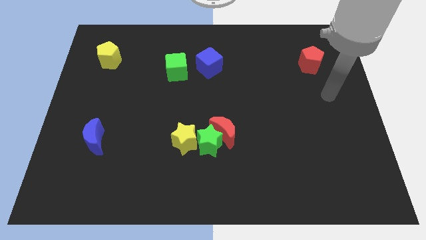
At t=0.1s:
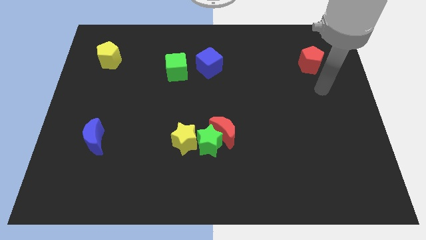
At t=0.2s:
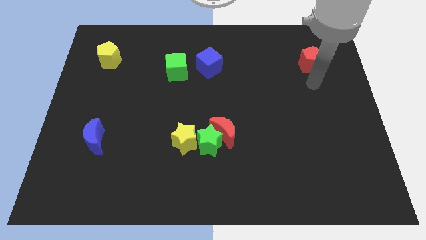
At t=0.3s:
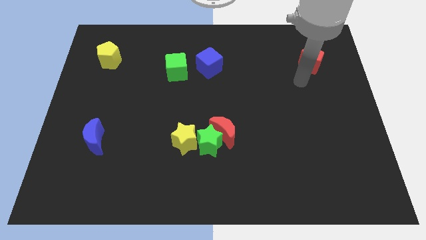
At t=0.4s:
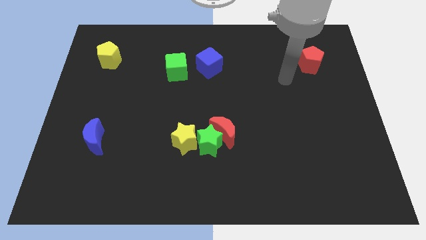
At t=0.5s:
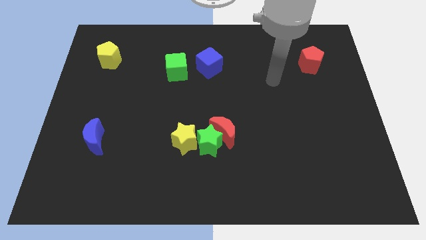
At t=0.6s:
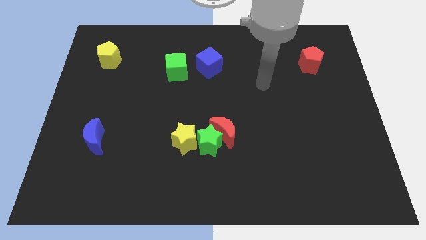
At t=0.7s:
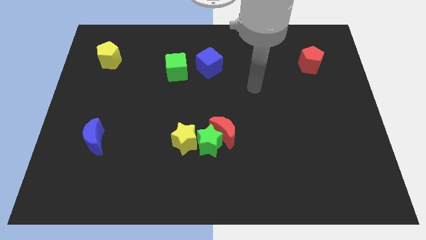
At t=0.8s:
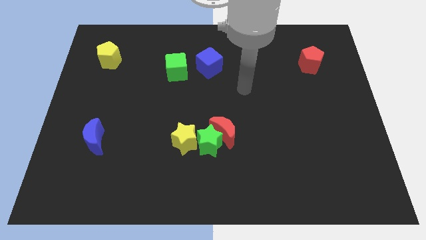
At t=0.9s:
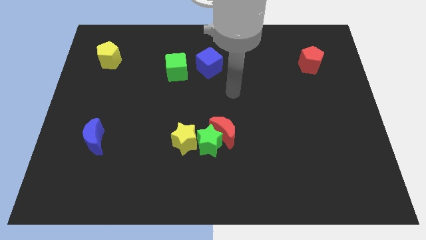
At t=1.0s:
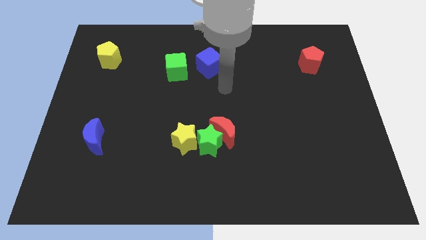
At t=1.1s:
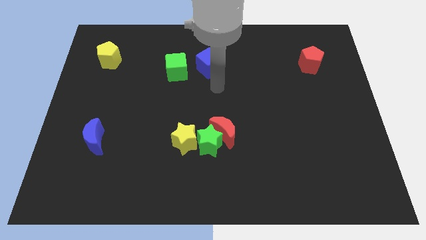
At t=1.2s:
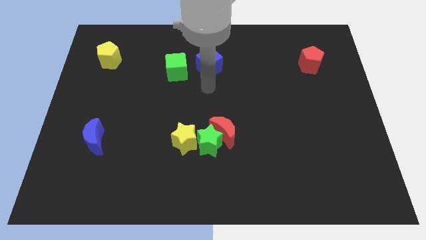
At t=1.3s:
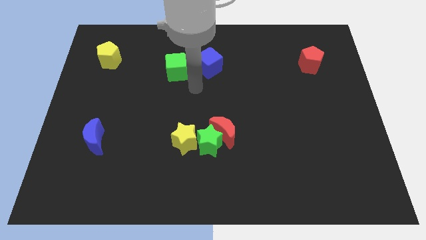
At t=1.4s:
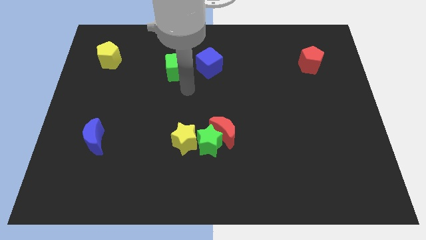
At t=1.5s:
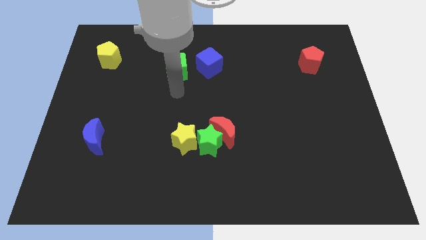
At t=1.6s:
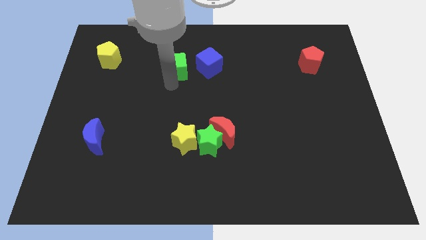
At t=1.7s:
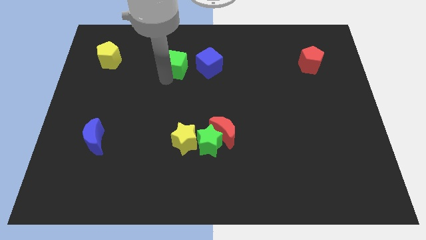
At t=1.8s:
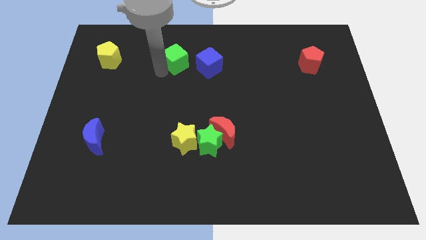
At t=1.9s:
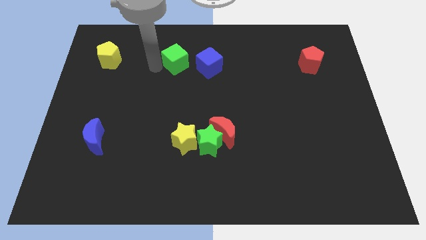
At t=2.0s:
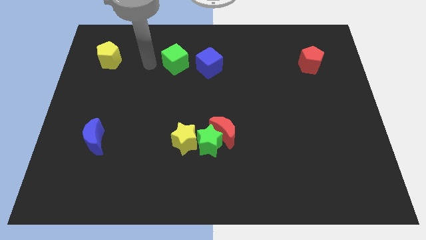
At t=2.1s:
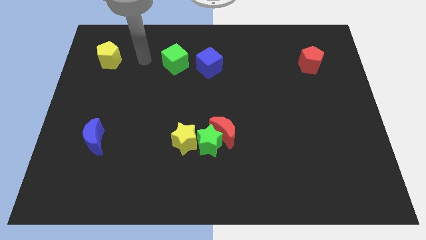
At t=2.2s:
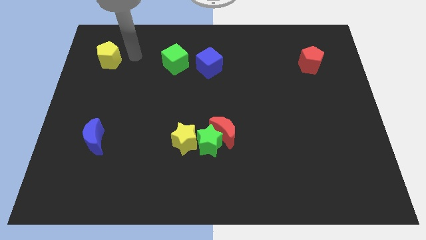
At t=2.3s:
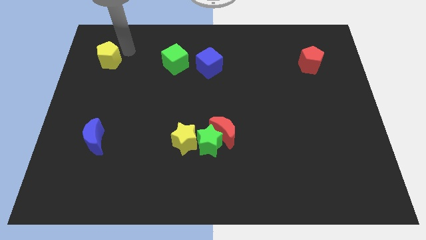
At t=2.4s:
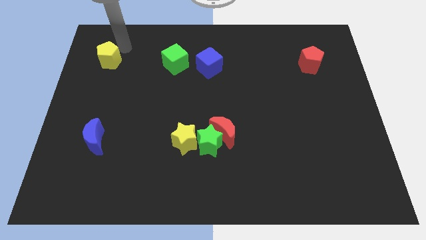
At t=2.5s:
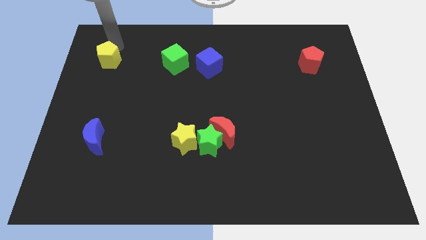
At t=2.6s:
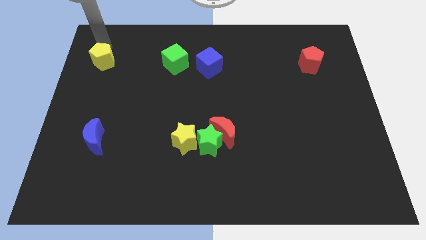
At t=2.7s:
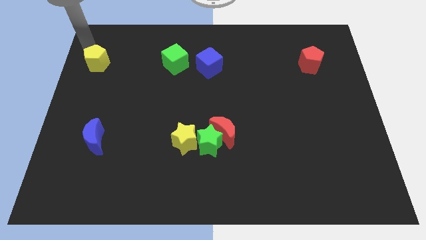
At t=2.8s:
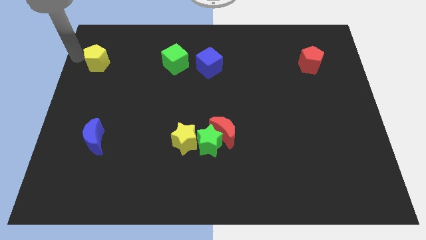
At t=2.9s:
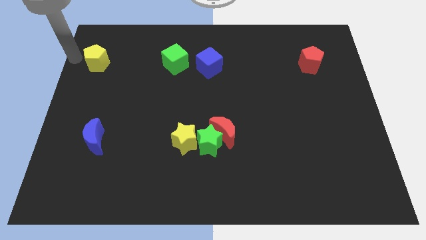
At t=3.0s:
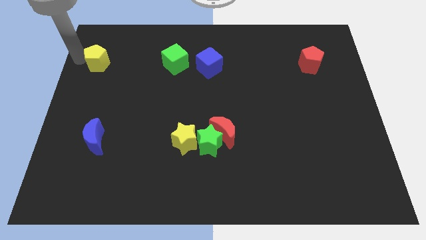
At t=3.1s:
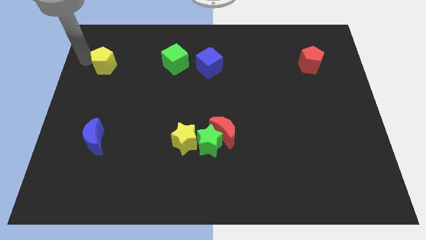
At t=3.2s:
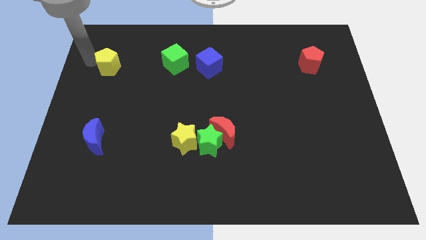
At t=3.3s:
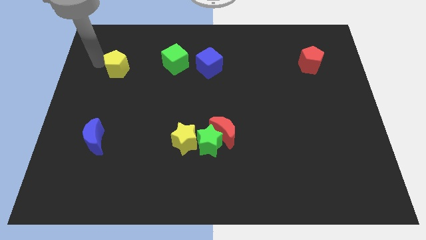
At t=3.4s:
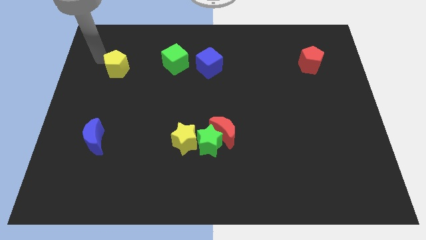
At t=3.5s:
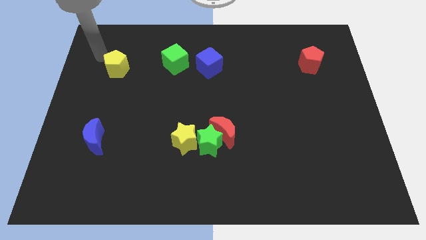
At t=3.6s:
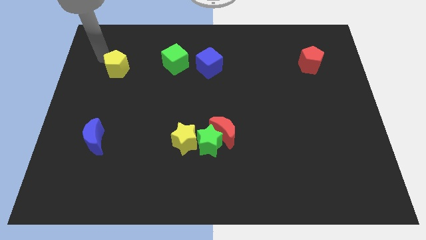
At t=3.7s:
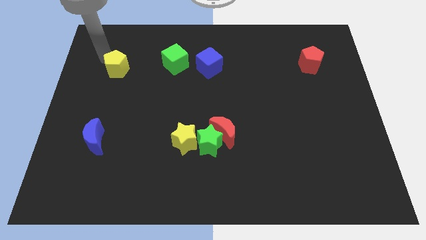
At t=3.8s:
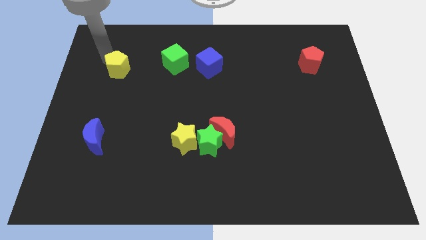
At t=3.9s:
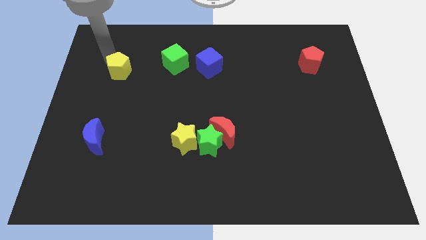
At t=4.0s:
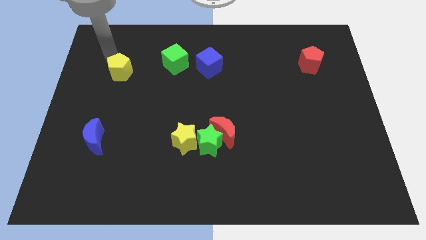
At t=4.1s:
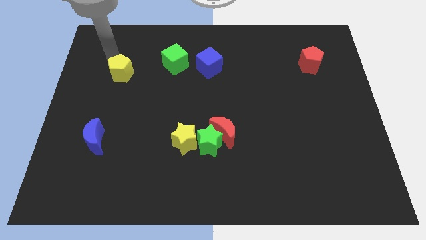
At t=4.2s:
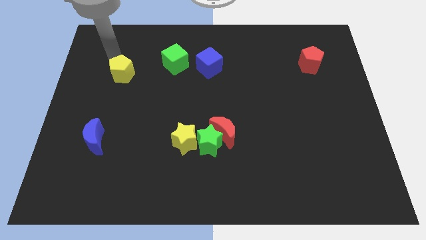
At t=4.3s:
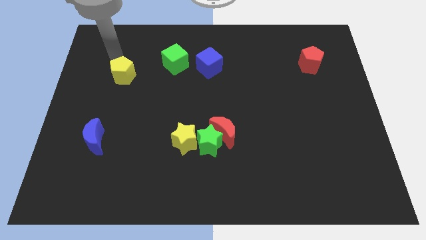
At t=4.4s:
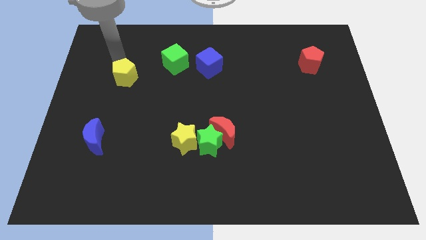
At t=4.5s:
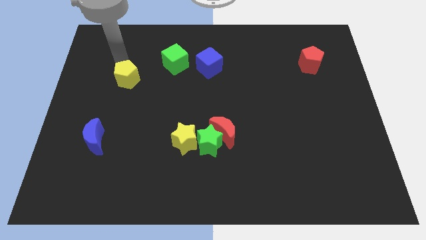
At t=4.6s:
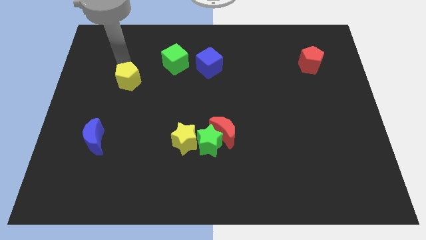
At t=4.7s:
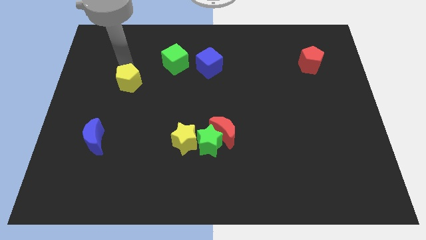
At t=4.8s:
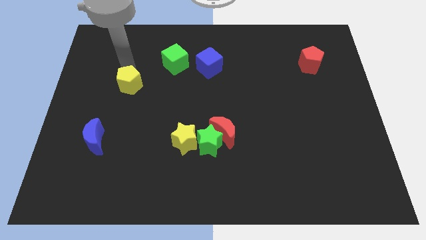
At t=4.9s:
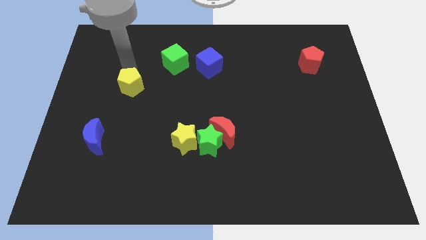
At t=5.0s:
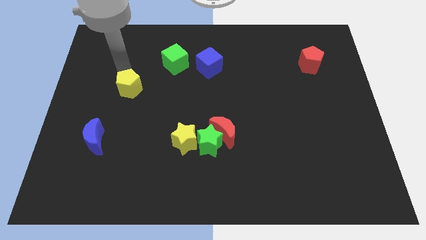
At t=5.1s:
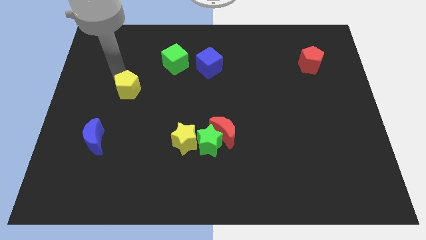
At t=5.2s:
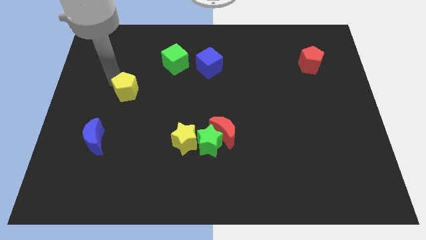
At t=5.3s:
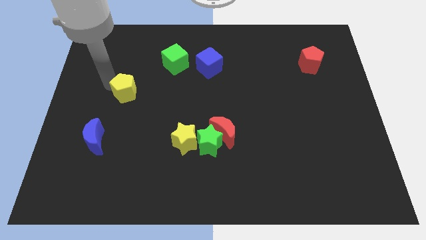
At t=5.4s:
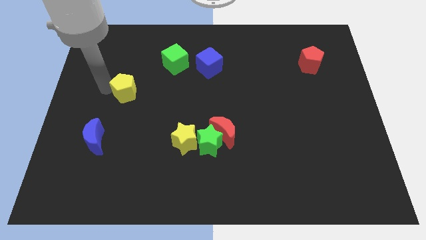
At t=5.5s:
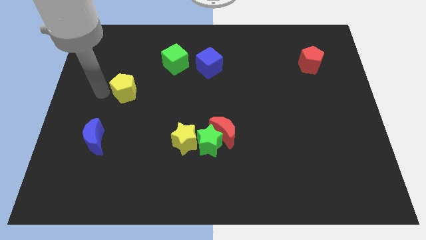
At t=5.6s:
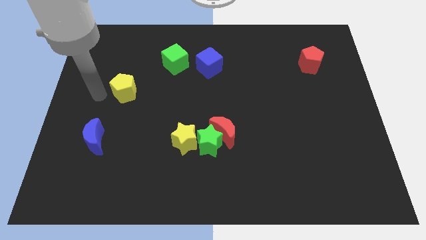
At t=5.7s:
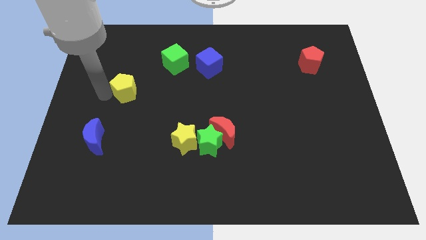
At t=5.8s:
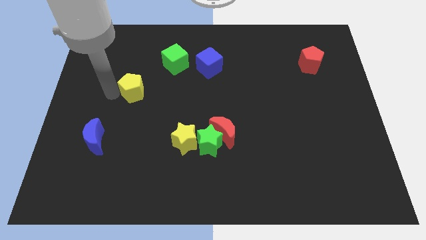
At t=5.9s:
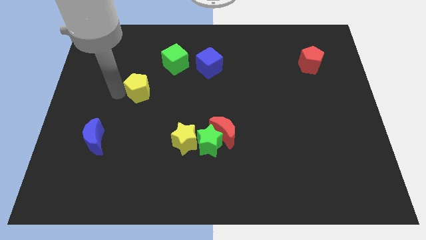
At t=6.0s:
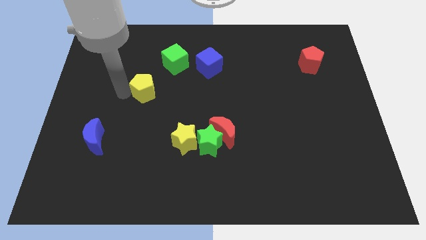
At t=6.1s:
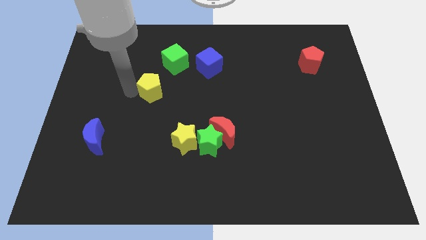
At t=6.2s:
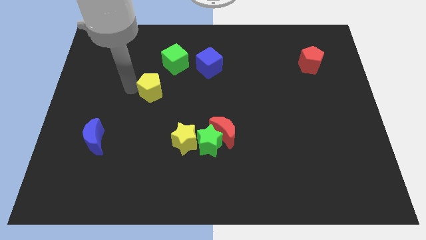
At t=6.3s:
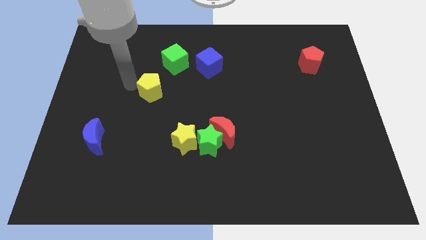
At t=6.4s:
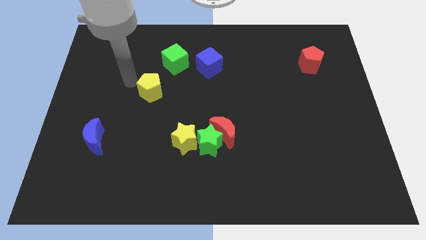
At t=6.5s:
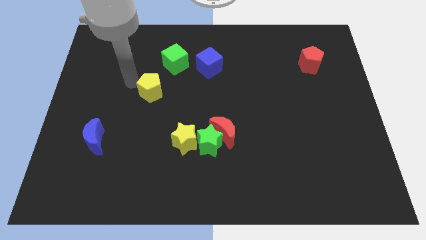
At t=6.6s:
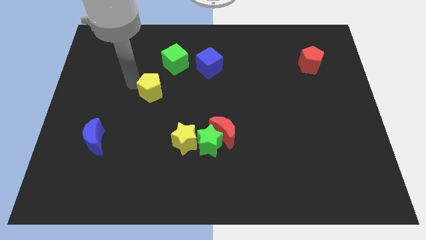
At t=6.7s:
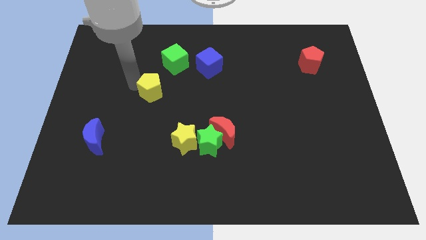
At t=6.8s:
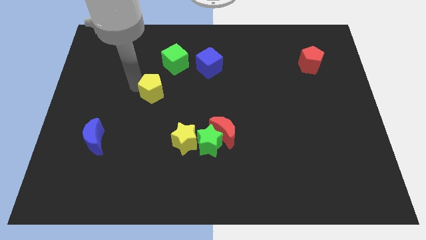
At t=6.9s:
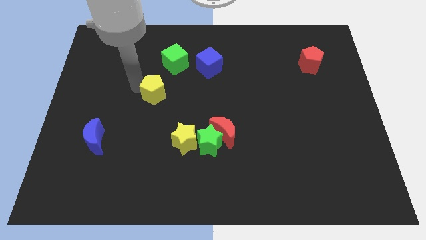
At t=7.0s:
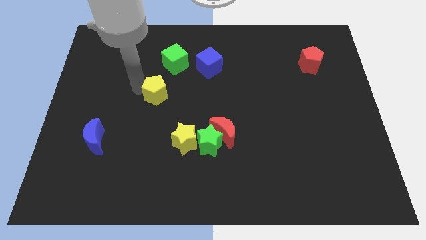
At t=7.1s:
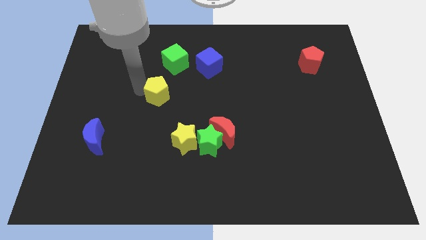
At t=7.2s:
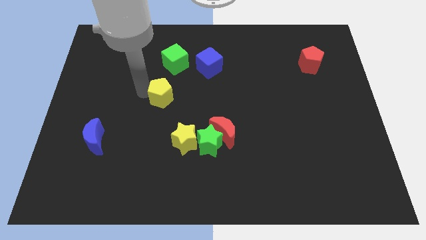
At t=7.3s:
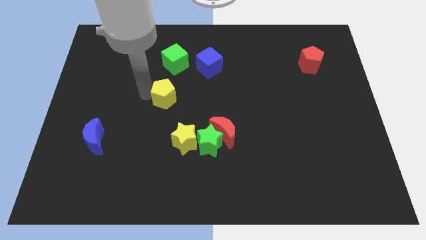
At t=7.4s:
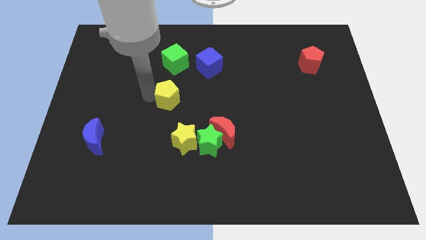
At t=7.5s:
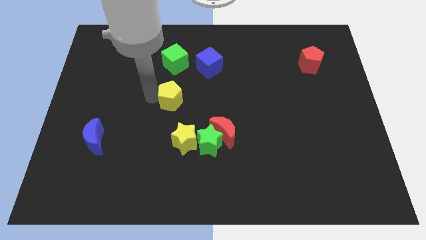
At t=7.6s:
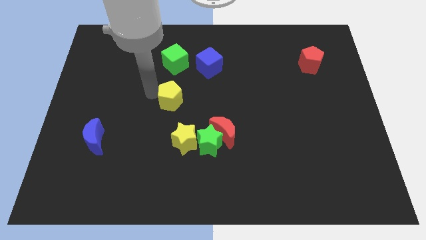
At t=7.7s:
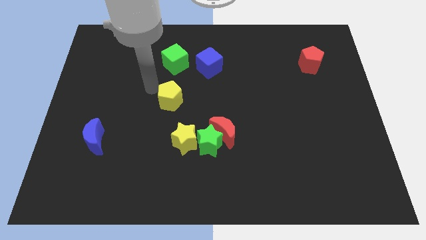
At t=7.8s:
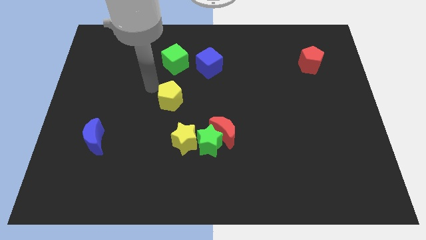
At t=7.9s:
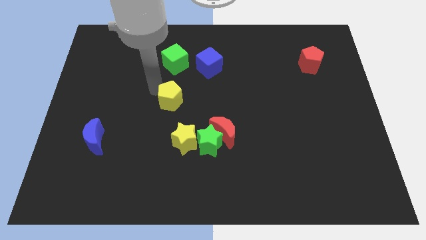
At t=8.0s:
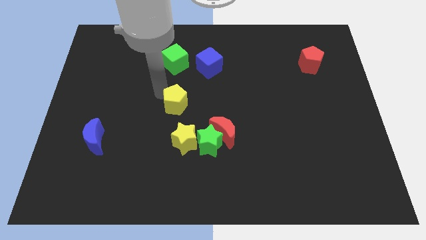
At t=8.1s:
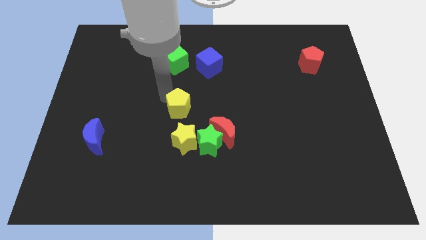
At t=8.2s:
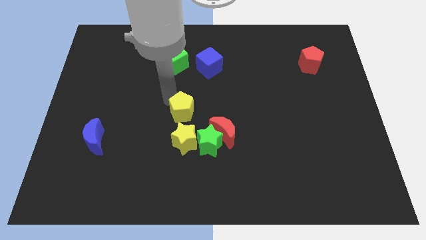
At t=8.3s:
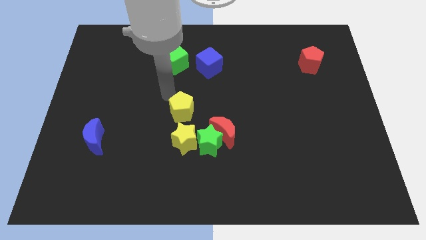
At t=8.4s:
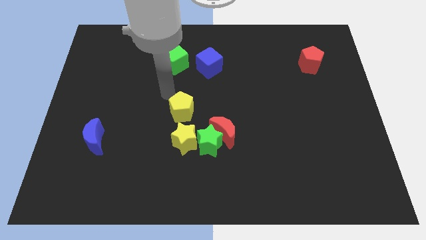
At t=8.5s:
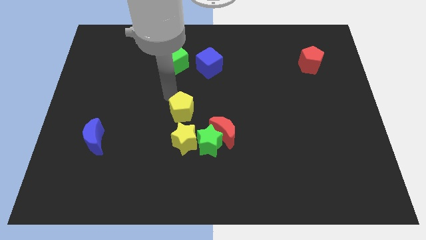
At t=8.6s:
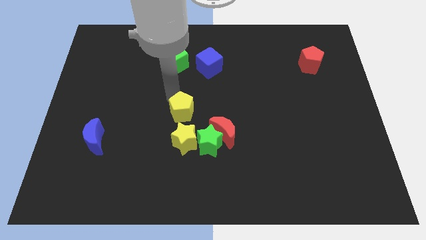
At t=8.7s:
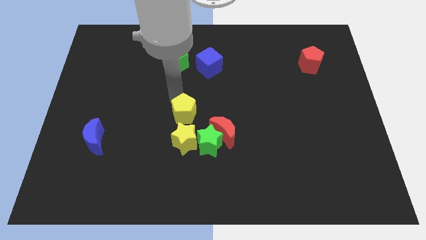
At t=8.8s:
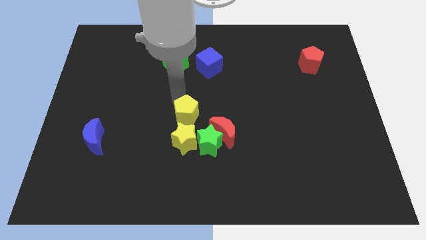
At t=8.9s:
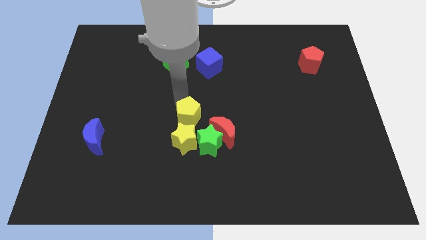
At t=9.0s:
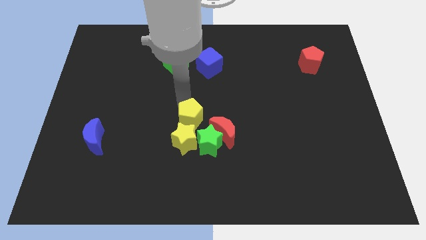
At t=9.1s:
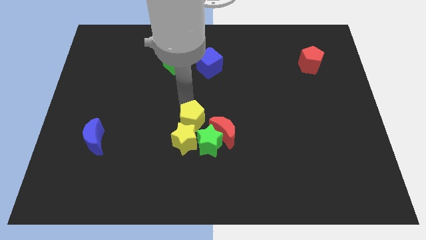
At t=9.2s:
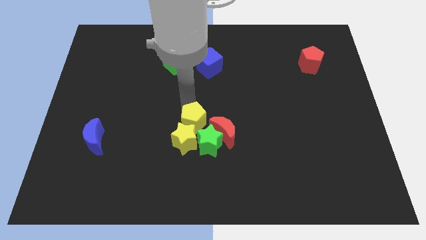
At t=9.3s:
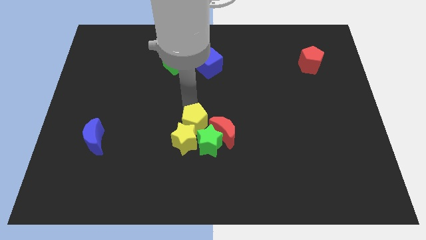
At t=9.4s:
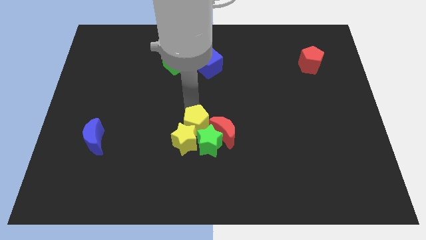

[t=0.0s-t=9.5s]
move the yellow pentagon to the green star
